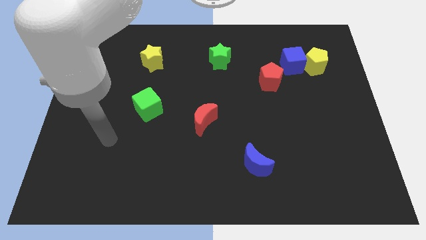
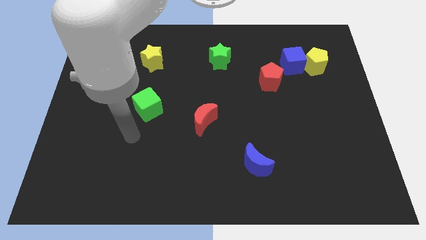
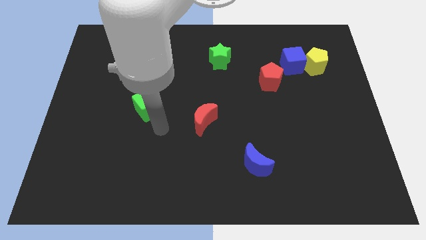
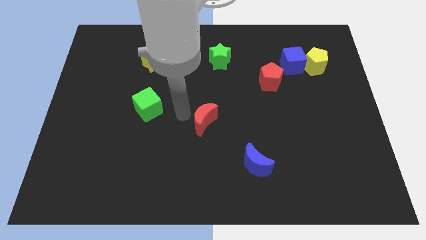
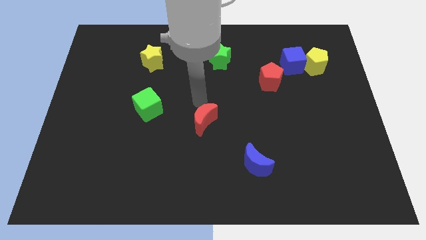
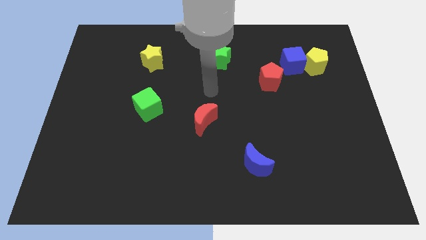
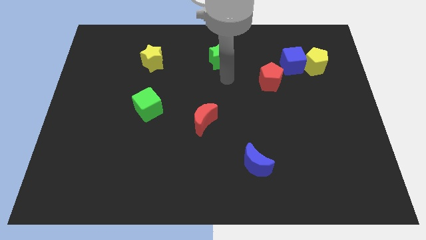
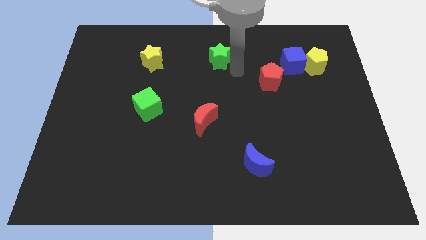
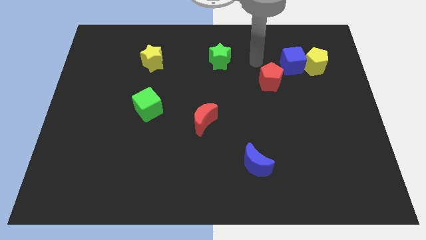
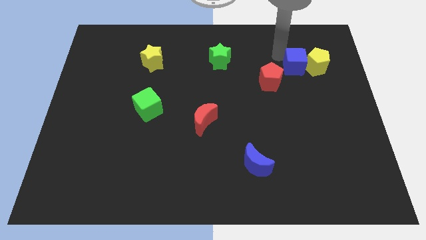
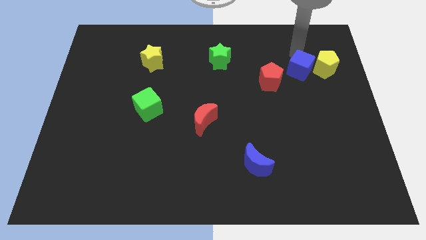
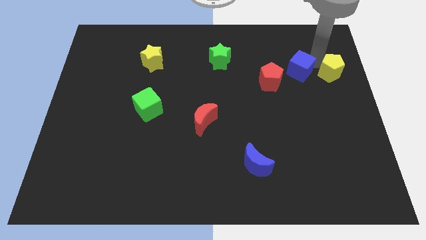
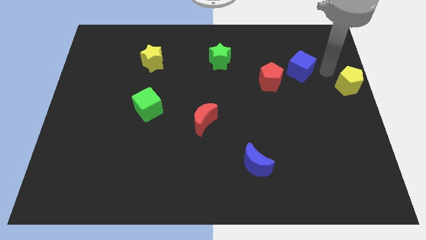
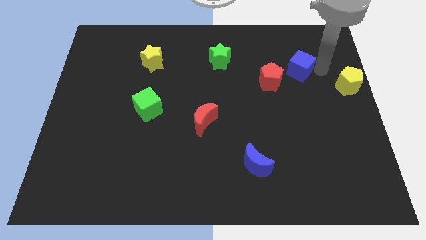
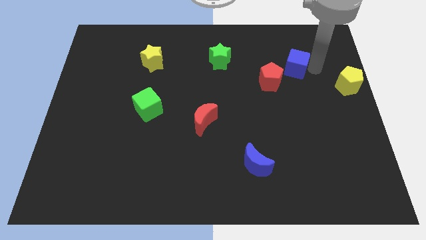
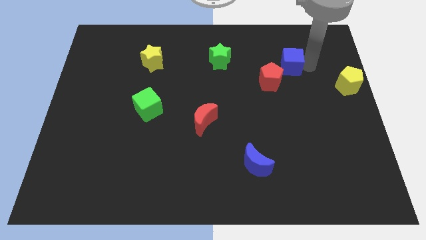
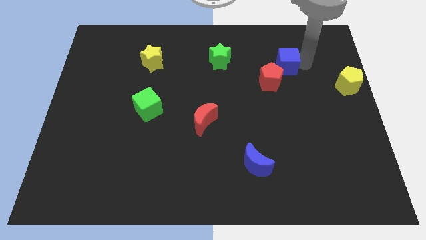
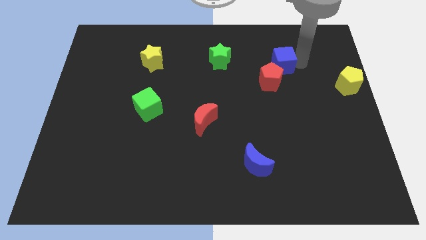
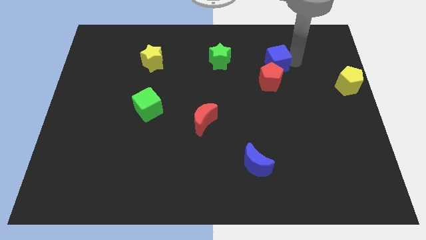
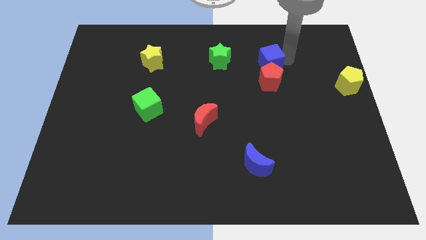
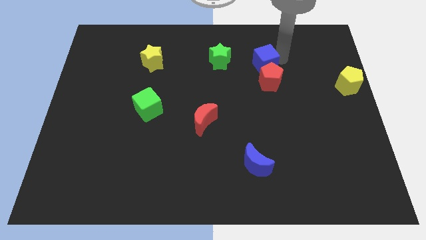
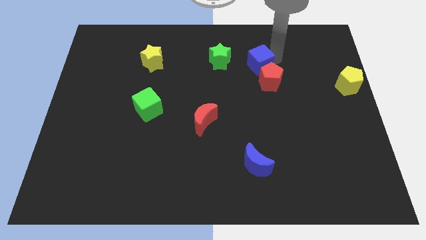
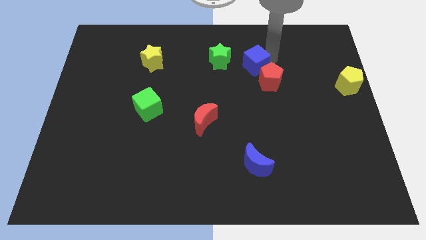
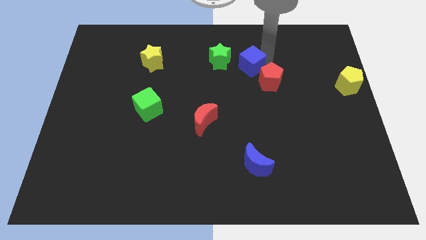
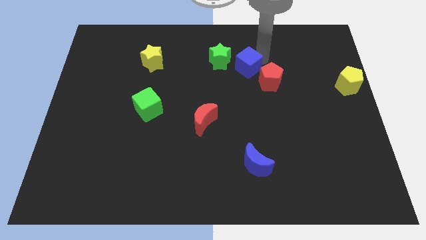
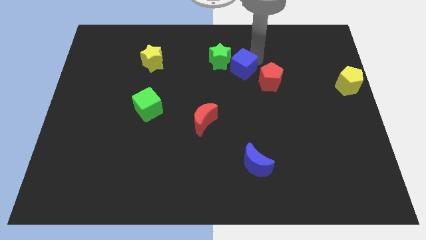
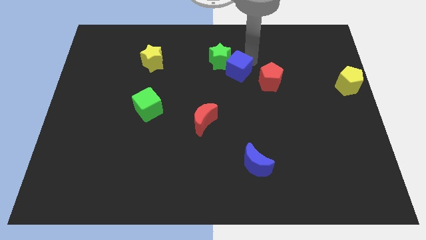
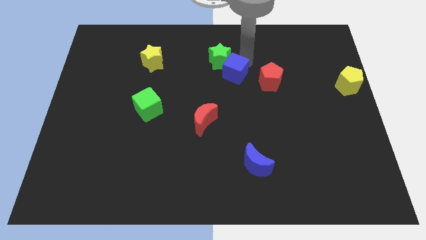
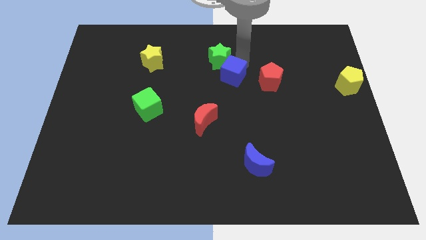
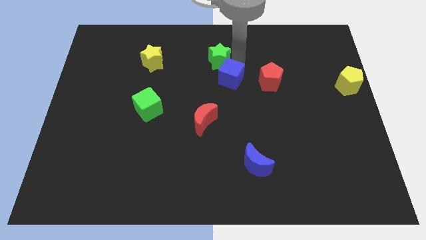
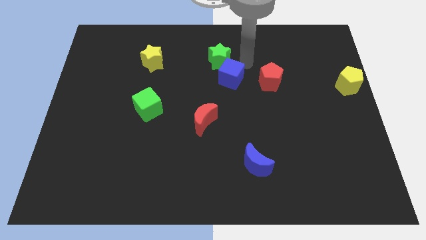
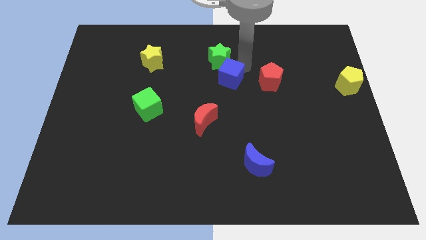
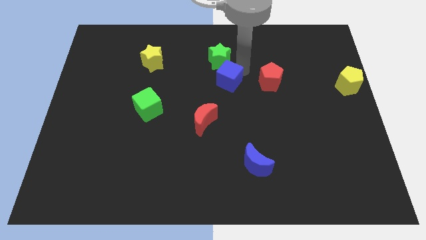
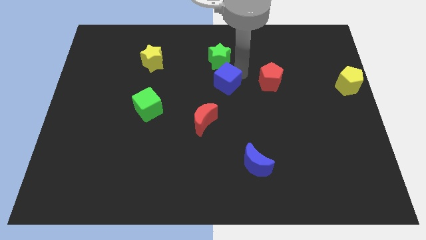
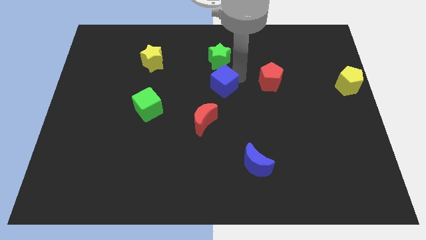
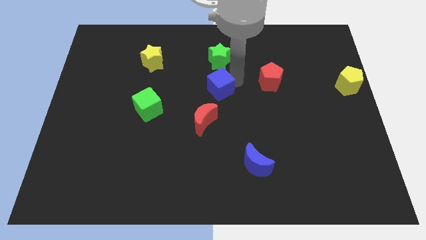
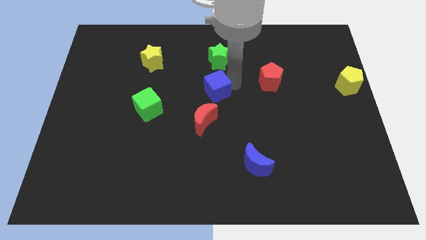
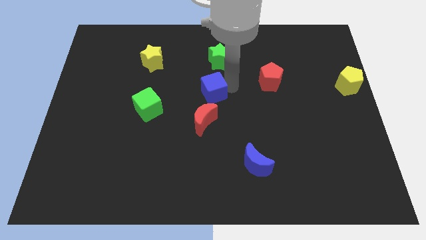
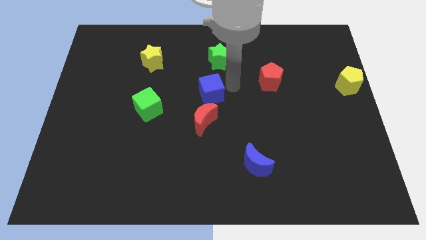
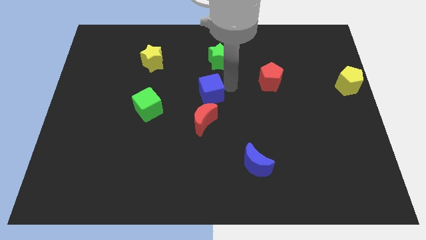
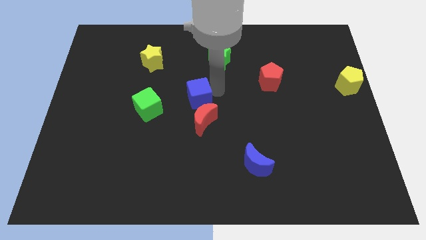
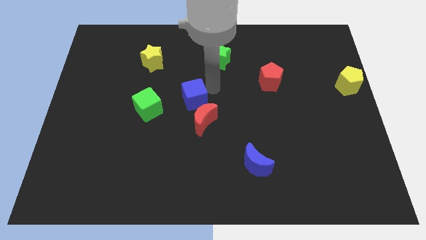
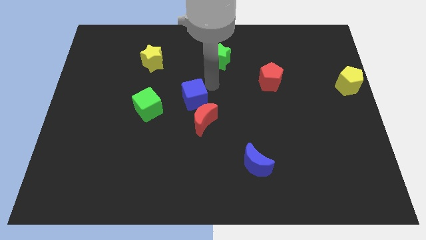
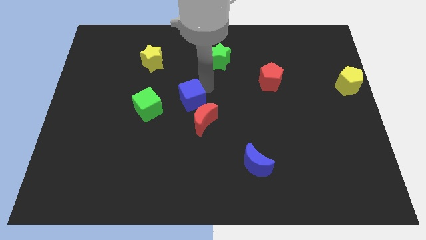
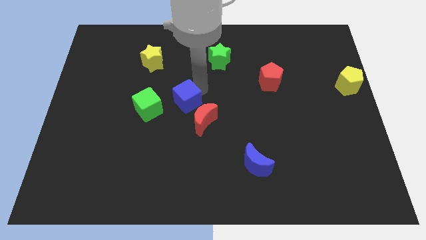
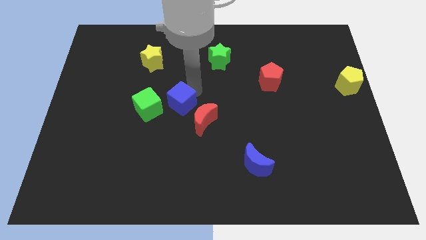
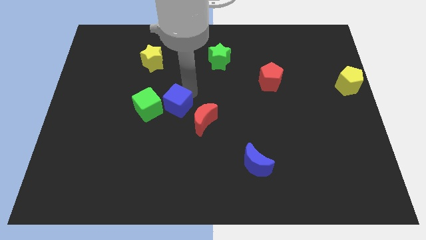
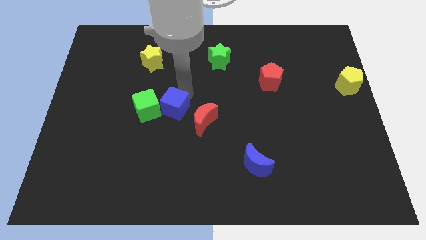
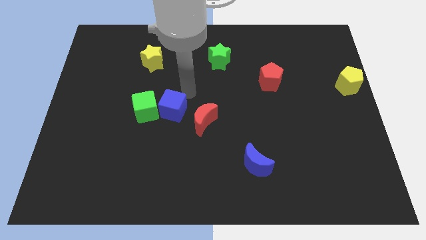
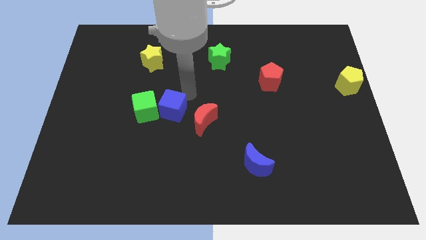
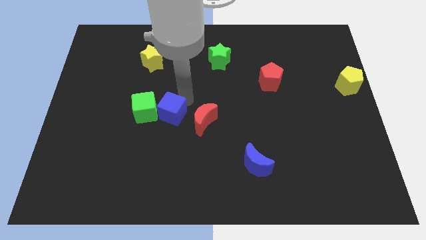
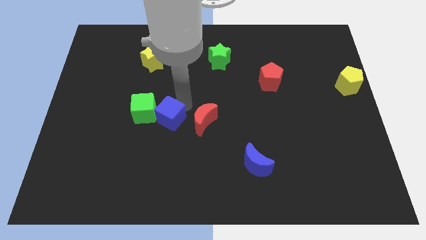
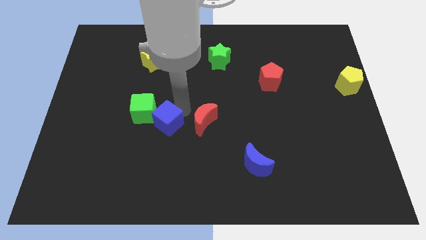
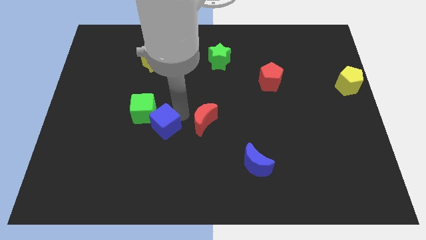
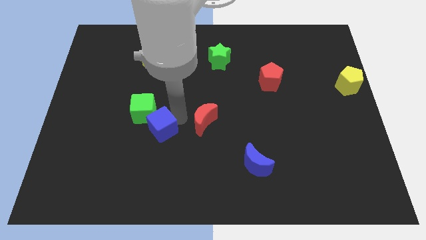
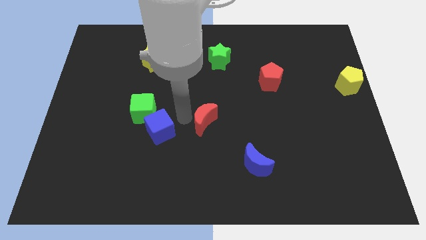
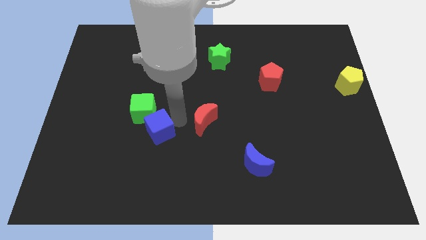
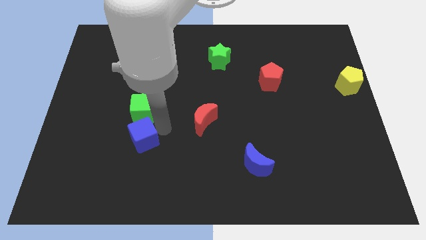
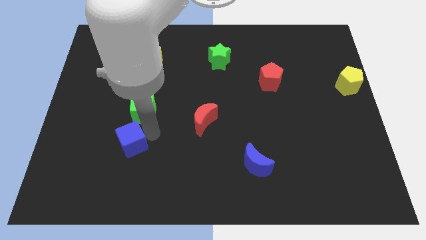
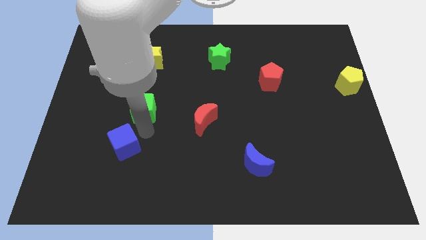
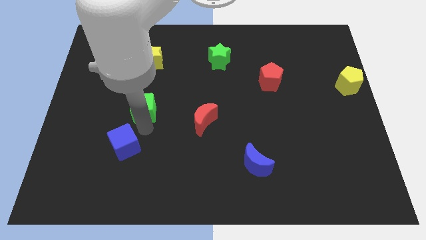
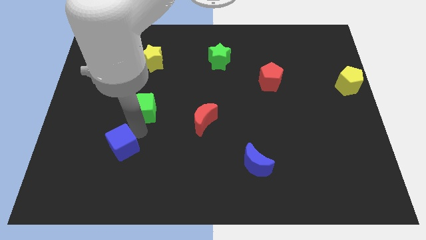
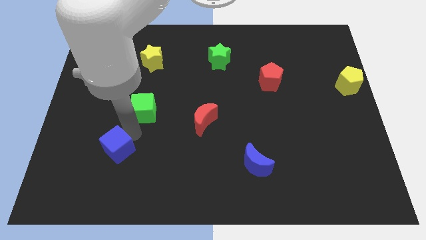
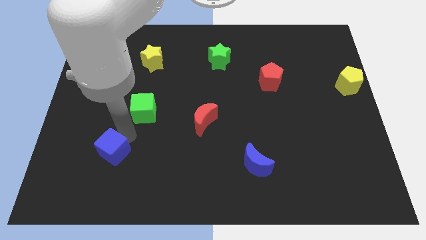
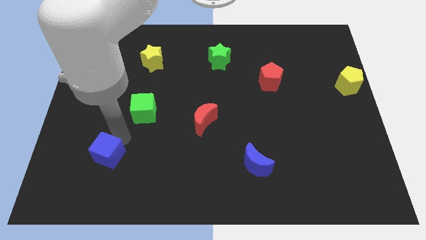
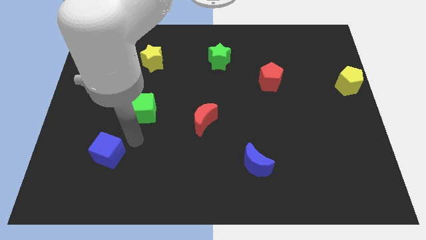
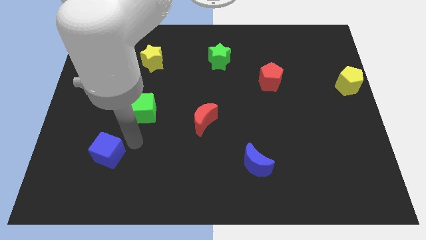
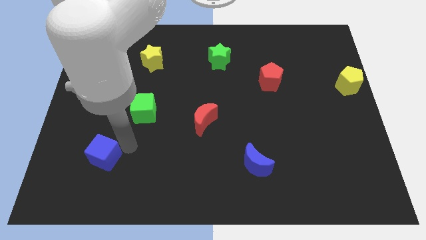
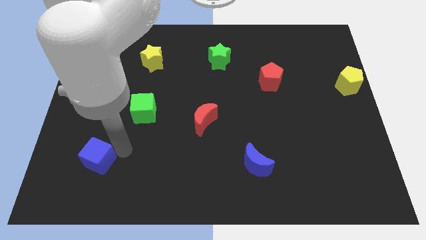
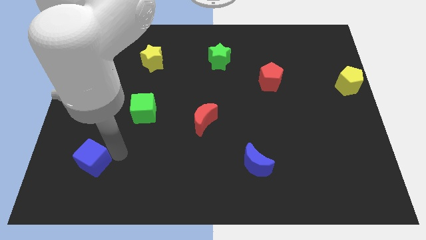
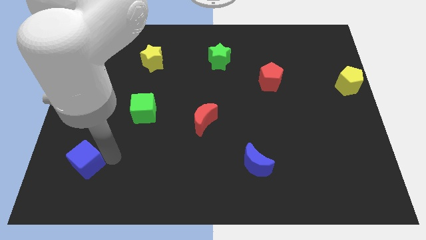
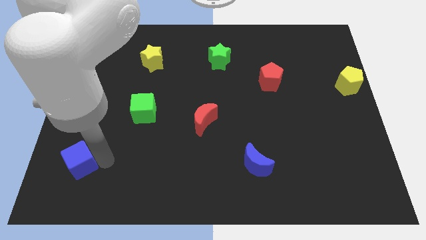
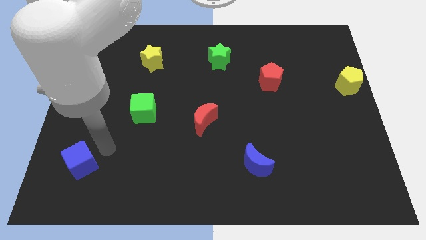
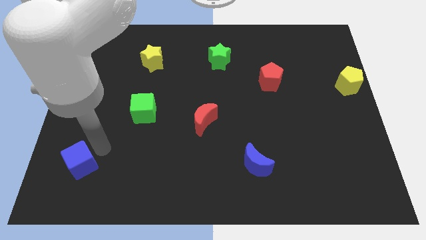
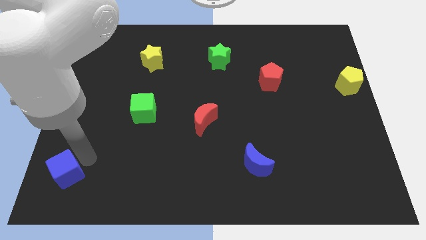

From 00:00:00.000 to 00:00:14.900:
move the blue cube to the bottom left
